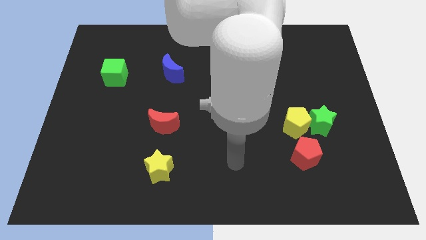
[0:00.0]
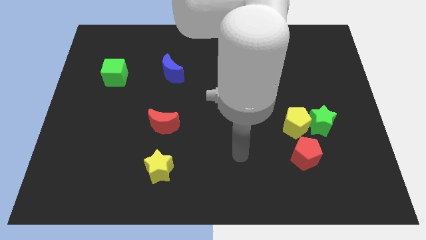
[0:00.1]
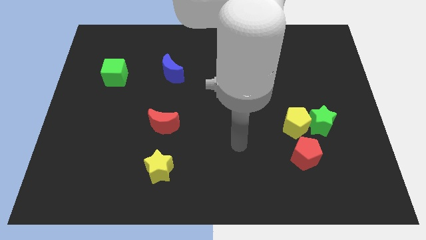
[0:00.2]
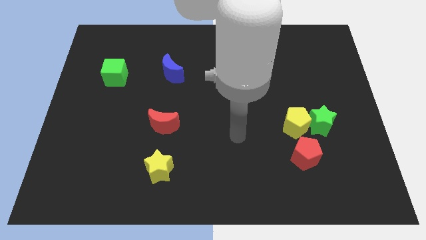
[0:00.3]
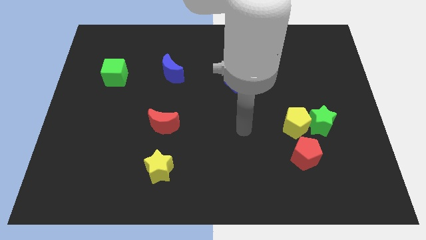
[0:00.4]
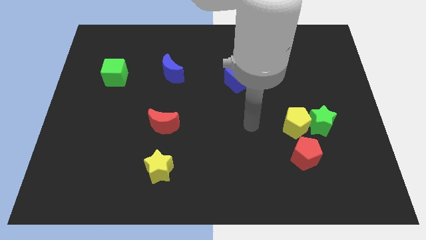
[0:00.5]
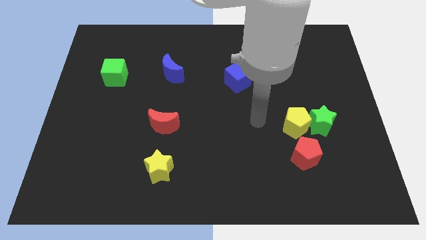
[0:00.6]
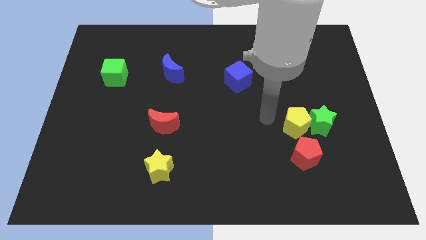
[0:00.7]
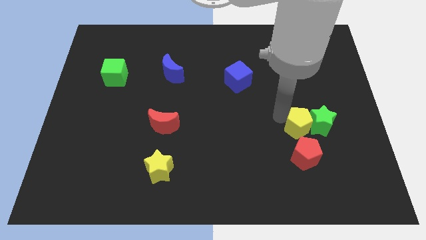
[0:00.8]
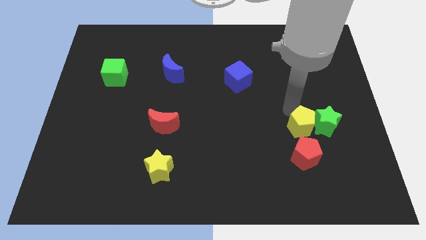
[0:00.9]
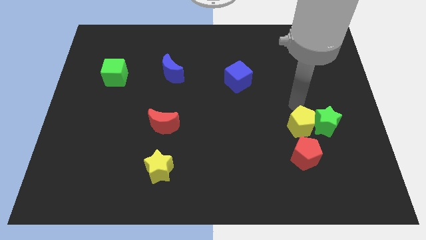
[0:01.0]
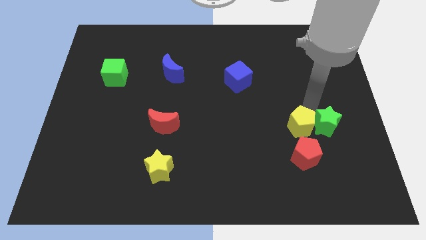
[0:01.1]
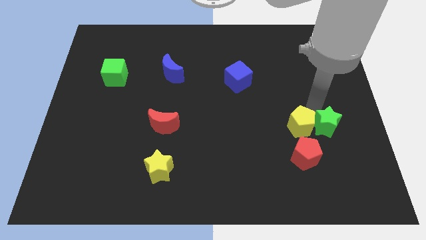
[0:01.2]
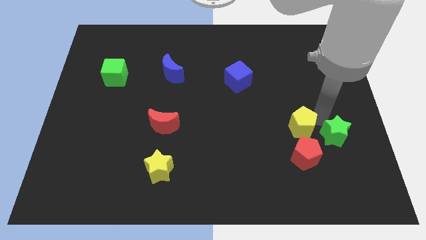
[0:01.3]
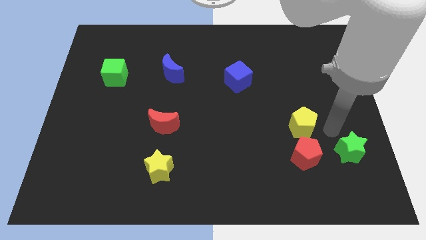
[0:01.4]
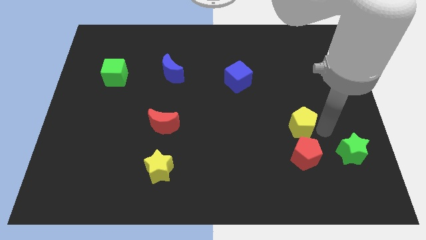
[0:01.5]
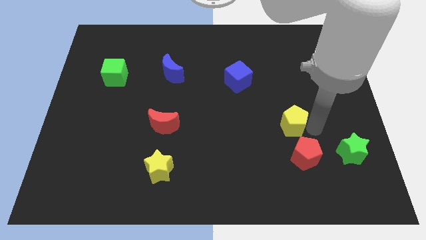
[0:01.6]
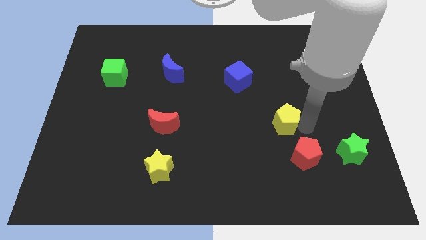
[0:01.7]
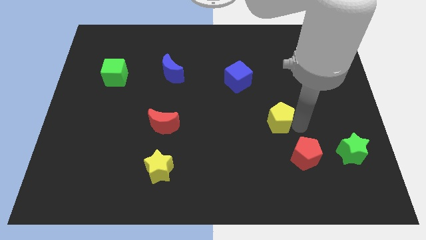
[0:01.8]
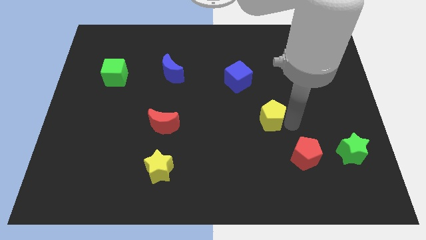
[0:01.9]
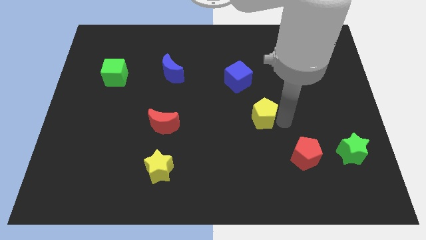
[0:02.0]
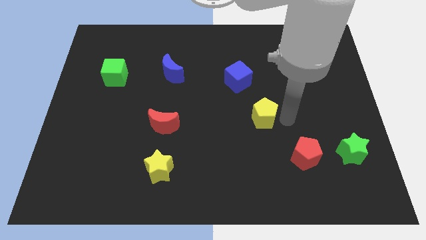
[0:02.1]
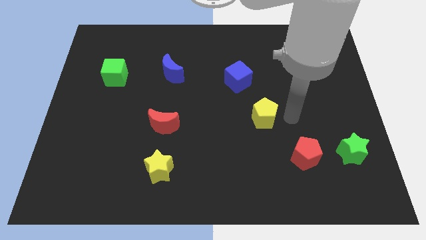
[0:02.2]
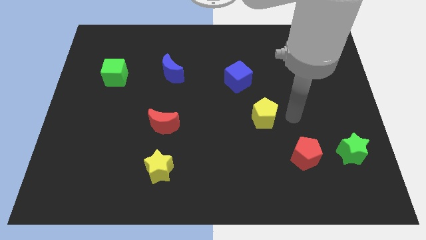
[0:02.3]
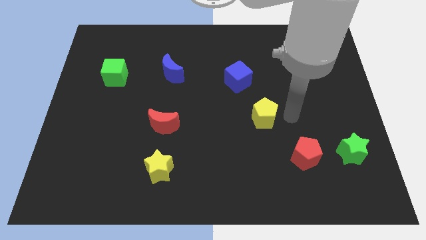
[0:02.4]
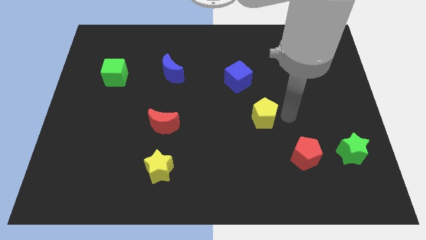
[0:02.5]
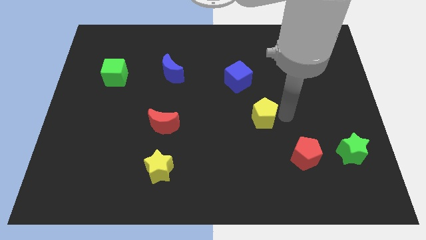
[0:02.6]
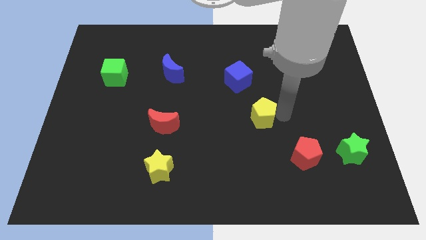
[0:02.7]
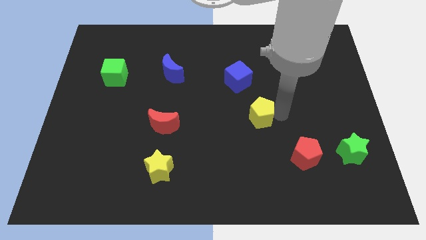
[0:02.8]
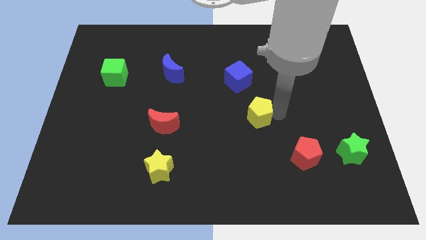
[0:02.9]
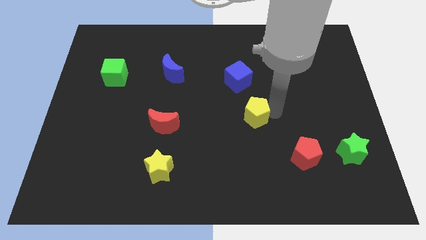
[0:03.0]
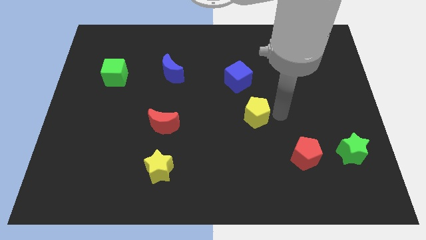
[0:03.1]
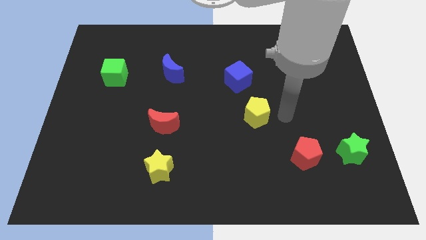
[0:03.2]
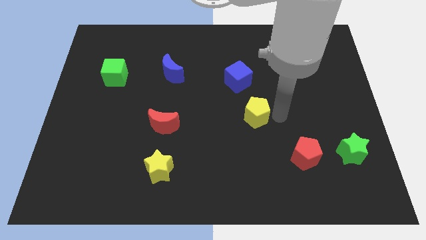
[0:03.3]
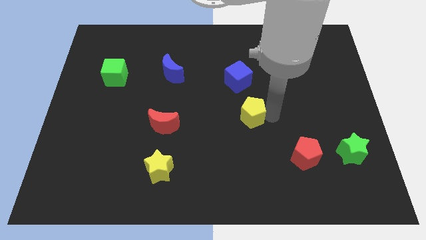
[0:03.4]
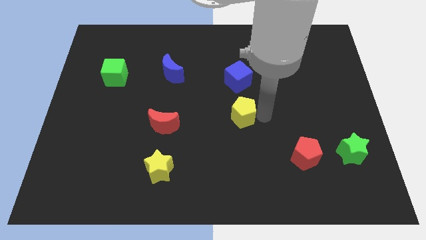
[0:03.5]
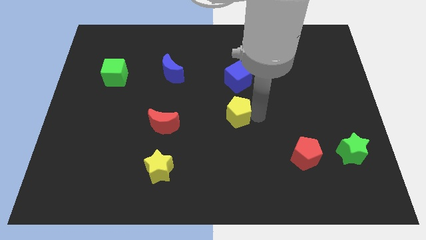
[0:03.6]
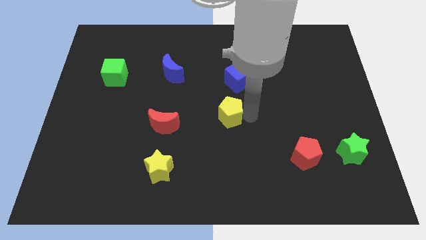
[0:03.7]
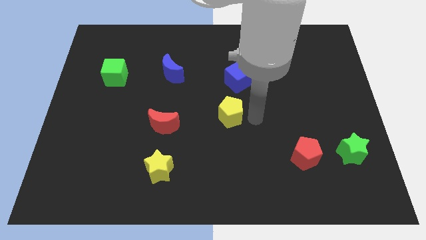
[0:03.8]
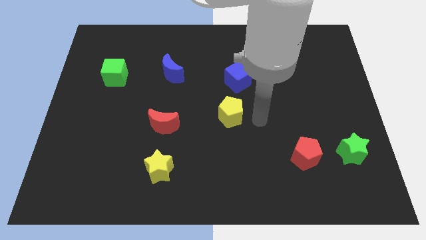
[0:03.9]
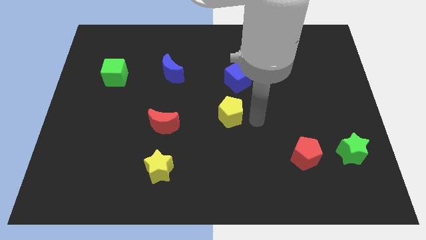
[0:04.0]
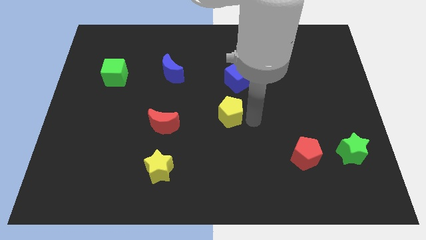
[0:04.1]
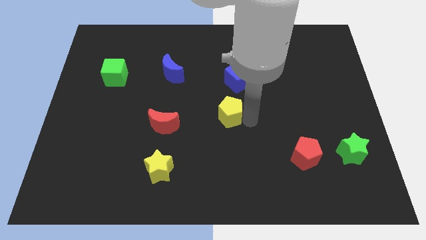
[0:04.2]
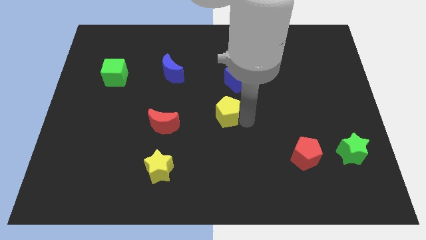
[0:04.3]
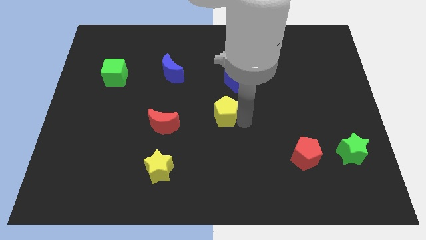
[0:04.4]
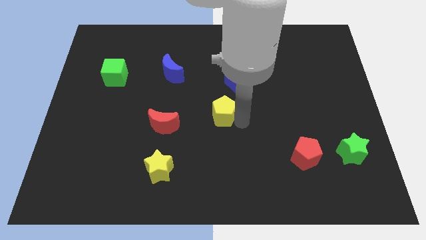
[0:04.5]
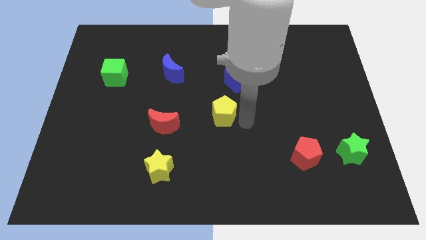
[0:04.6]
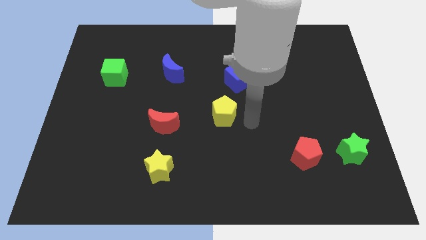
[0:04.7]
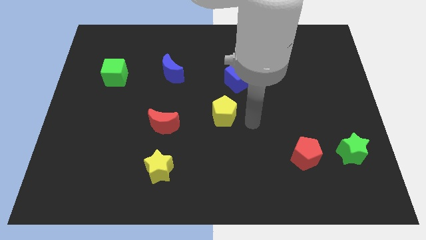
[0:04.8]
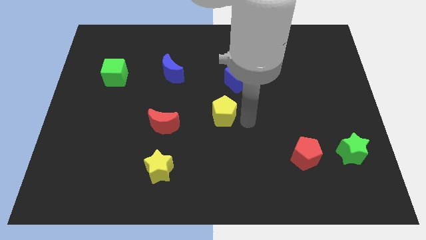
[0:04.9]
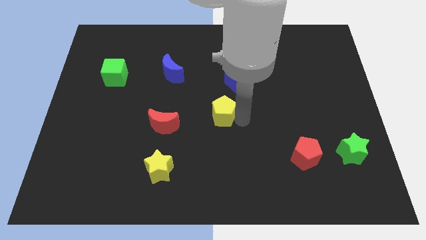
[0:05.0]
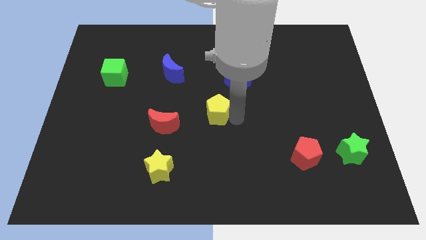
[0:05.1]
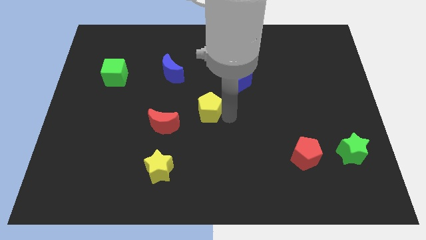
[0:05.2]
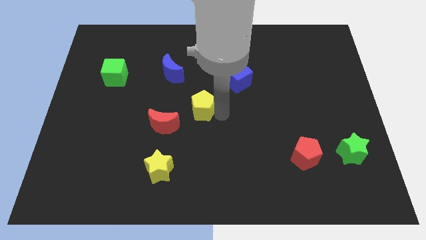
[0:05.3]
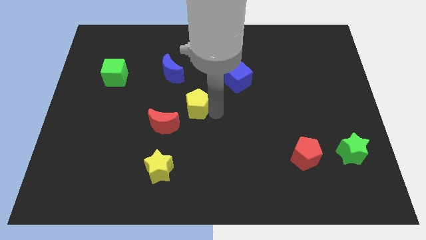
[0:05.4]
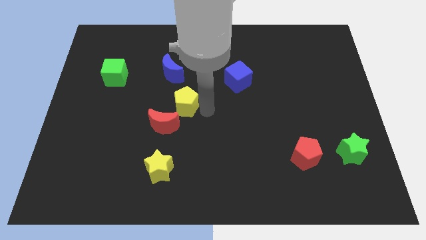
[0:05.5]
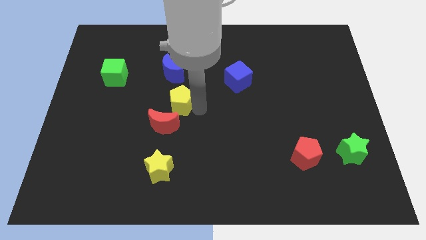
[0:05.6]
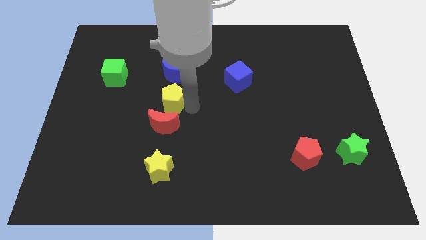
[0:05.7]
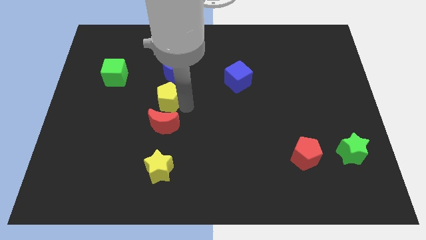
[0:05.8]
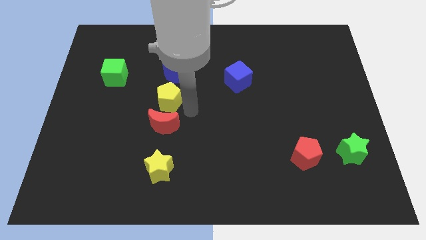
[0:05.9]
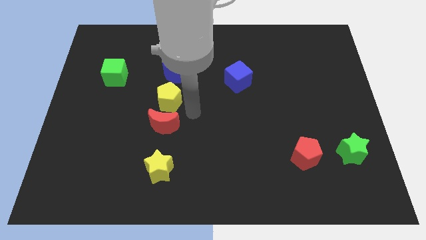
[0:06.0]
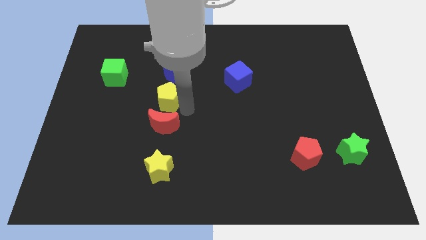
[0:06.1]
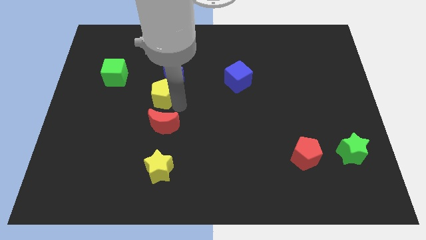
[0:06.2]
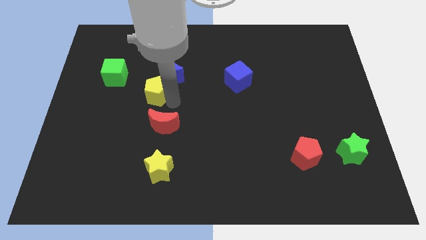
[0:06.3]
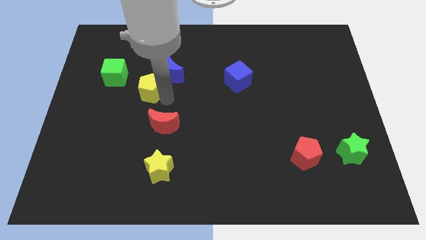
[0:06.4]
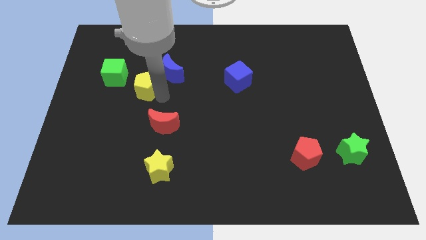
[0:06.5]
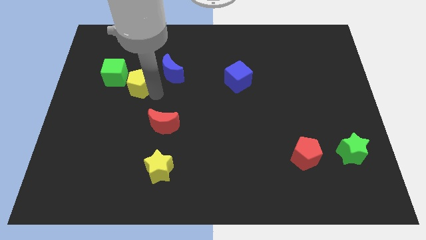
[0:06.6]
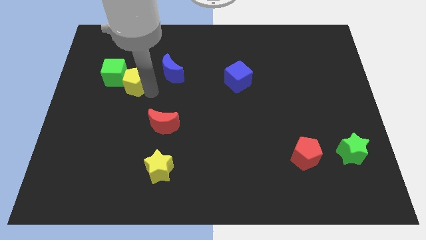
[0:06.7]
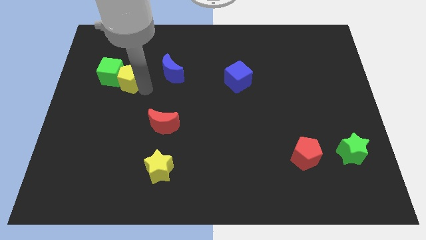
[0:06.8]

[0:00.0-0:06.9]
move the yellow pentagon towards the green cube

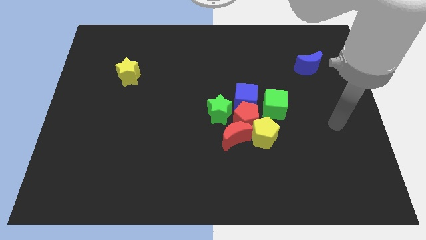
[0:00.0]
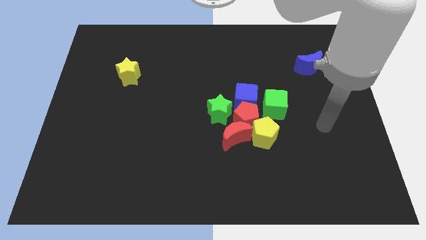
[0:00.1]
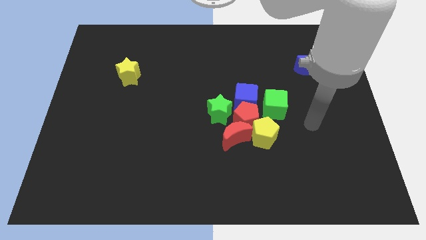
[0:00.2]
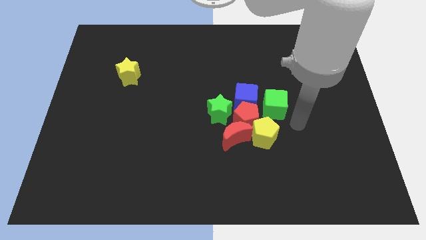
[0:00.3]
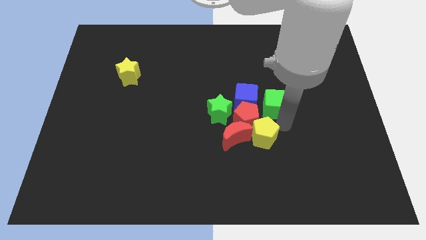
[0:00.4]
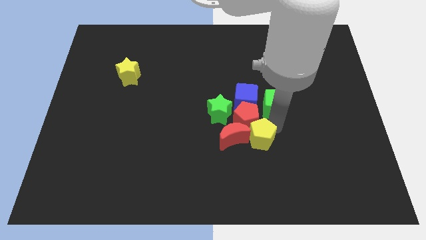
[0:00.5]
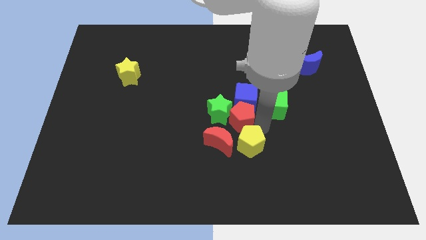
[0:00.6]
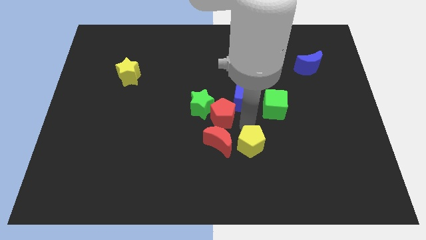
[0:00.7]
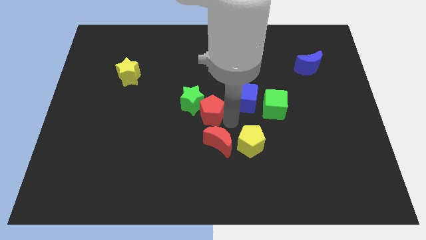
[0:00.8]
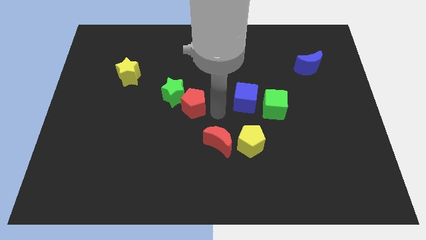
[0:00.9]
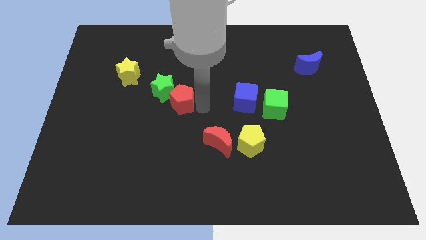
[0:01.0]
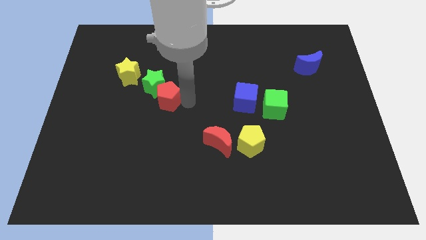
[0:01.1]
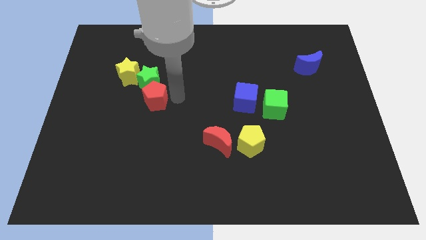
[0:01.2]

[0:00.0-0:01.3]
move the green star close to the yellow star
